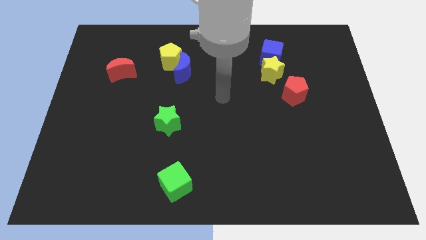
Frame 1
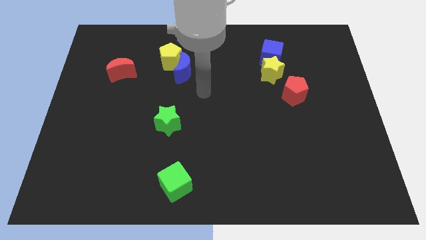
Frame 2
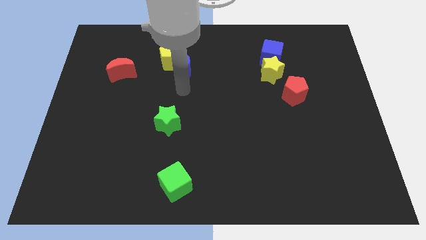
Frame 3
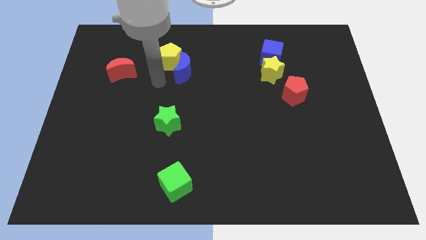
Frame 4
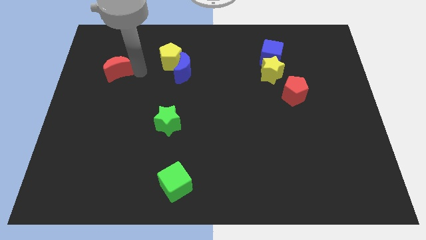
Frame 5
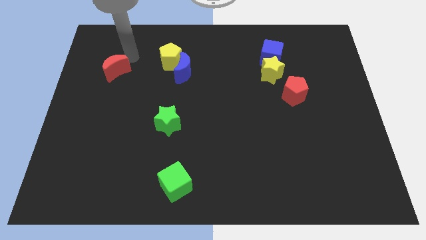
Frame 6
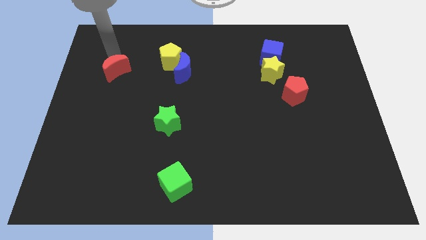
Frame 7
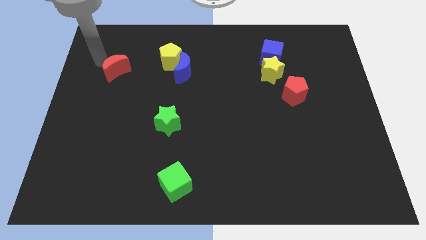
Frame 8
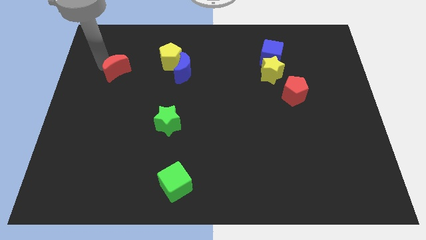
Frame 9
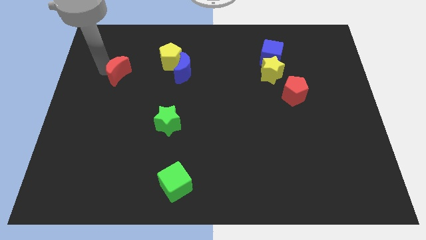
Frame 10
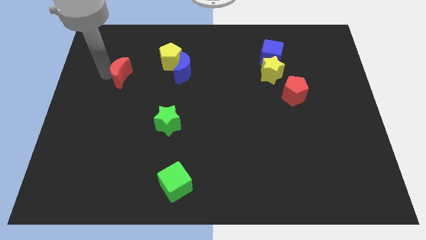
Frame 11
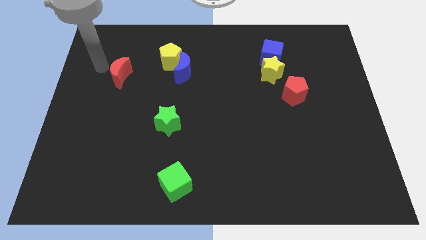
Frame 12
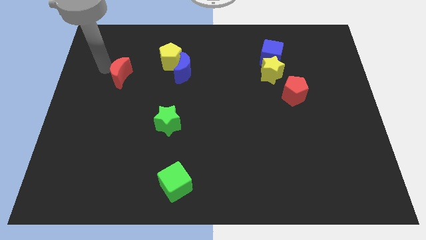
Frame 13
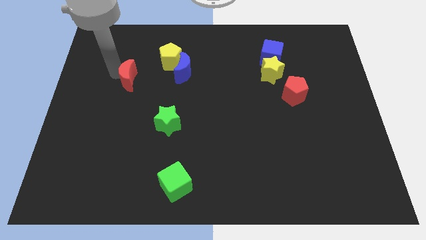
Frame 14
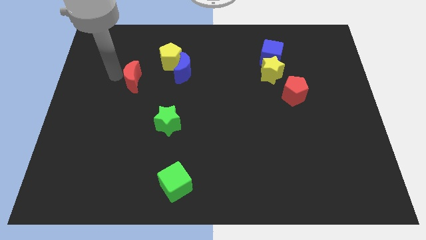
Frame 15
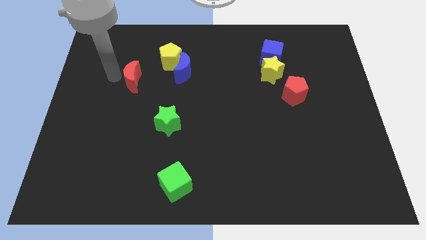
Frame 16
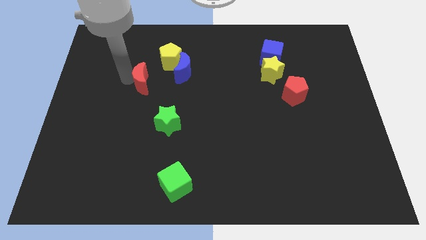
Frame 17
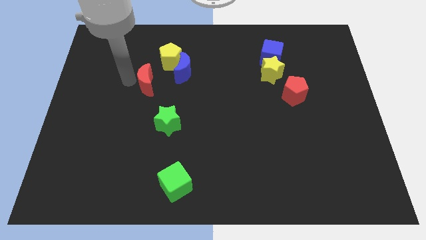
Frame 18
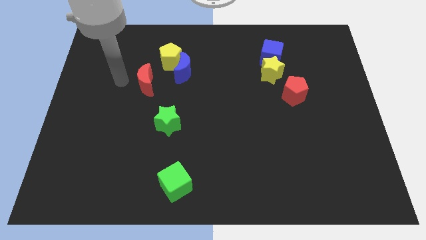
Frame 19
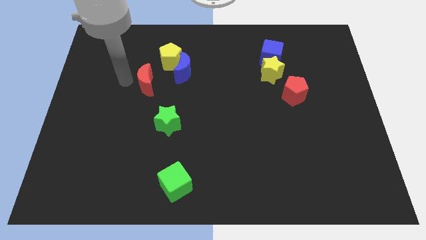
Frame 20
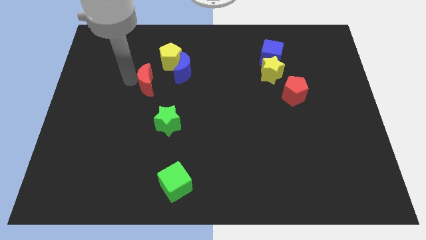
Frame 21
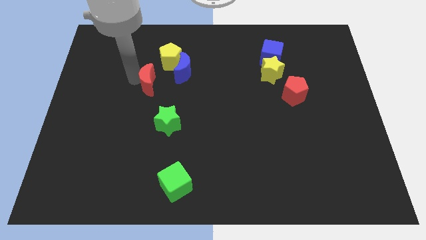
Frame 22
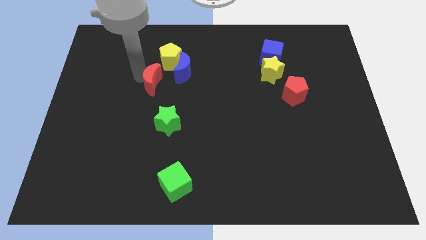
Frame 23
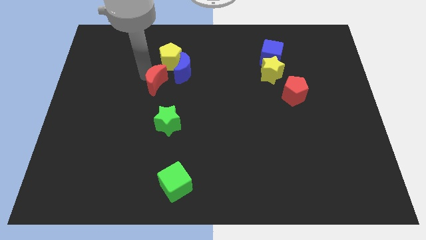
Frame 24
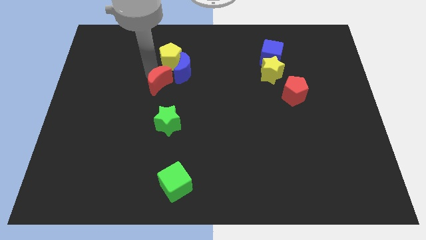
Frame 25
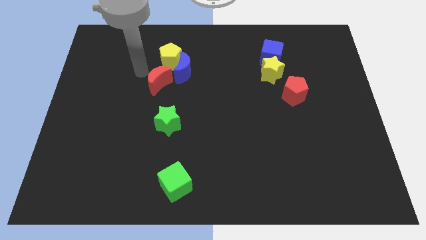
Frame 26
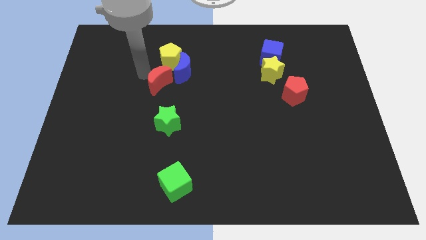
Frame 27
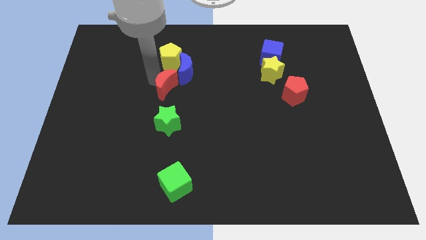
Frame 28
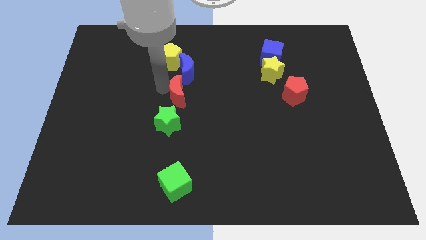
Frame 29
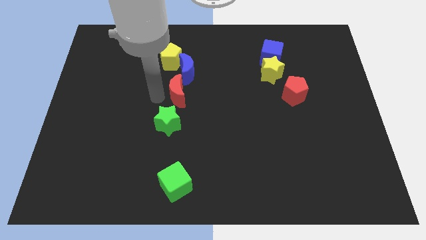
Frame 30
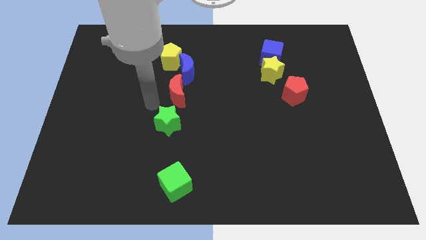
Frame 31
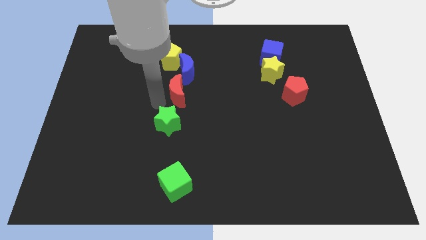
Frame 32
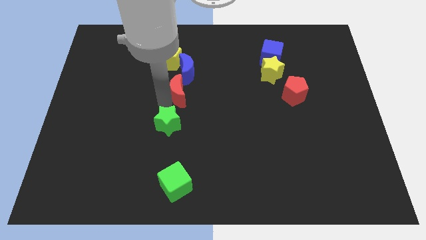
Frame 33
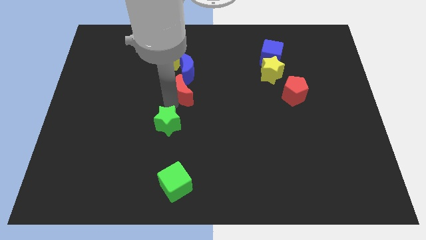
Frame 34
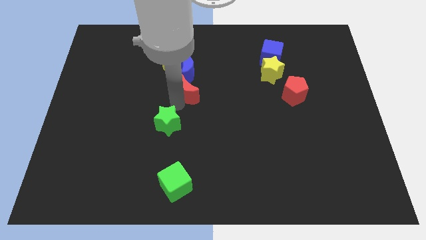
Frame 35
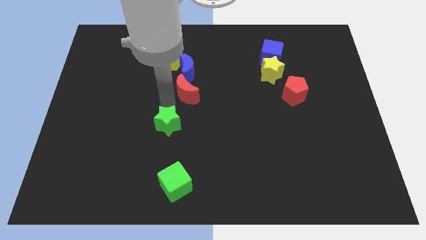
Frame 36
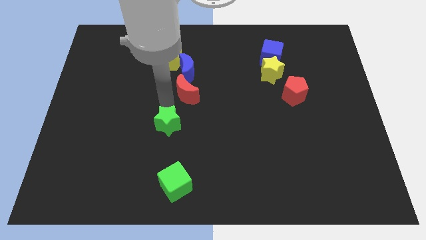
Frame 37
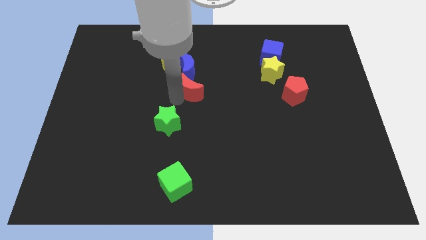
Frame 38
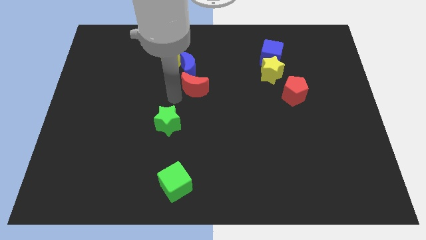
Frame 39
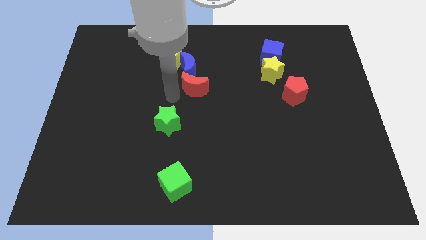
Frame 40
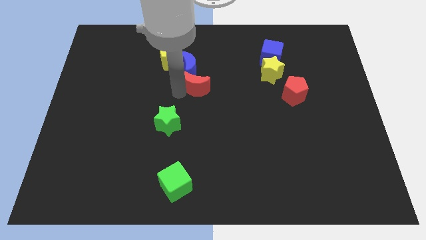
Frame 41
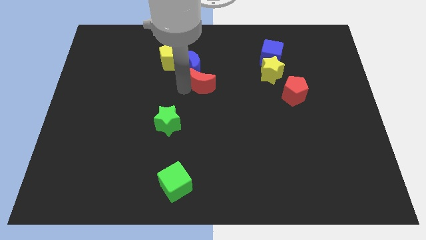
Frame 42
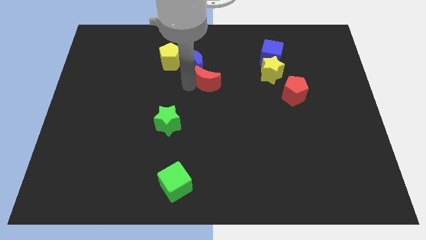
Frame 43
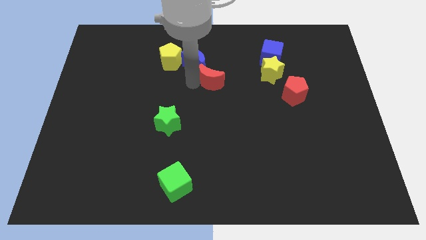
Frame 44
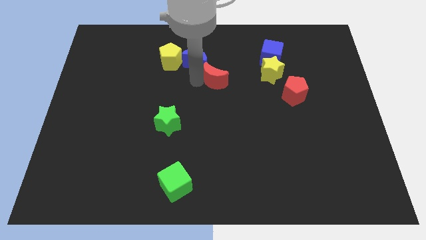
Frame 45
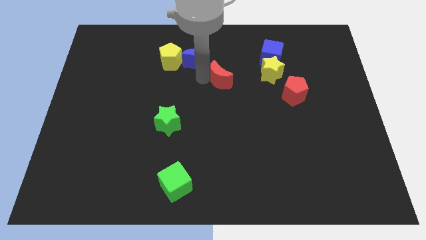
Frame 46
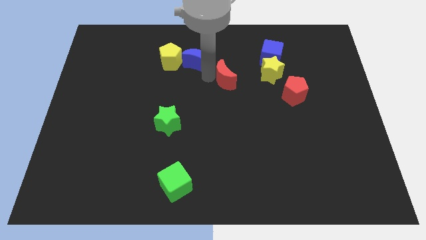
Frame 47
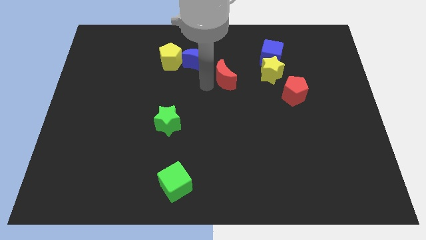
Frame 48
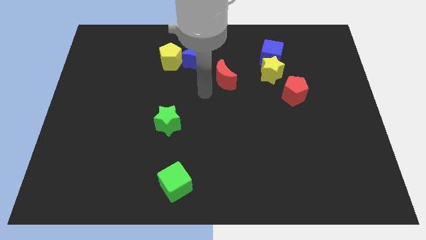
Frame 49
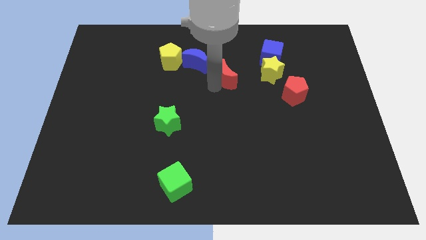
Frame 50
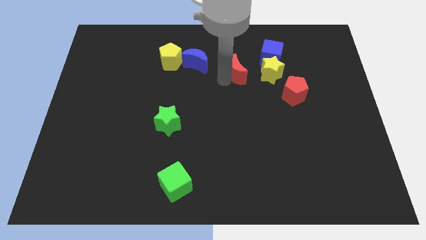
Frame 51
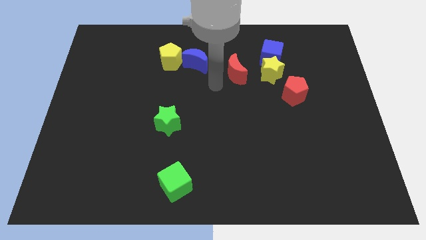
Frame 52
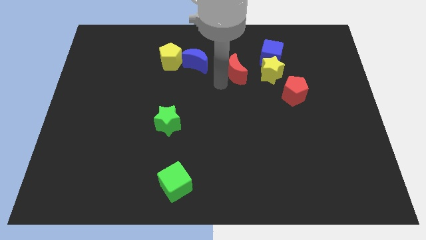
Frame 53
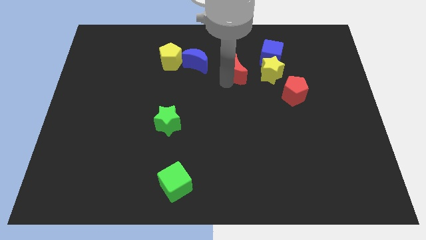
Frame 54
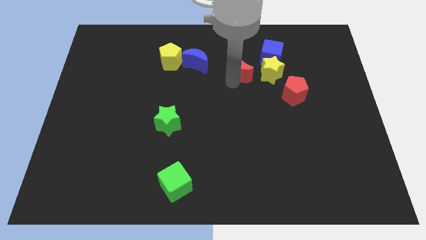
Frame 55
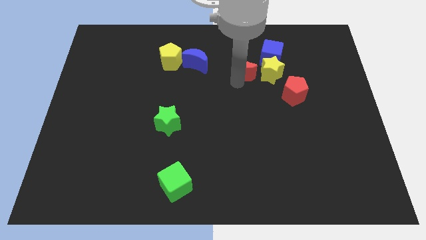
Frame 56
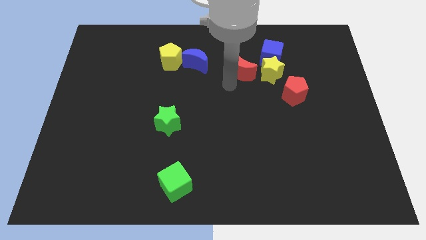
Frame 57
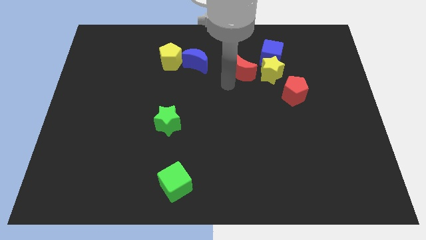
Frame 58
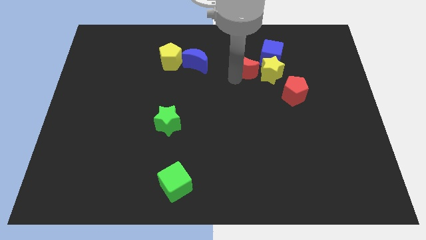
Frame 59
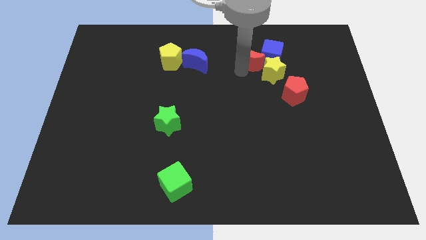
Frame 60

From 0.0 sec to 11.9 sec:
push the red moon towards the blue cube

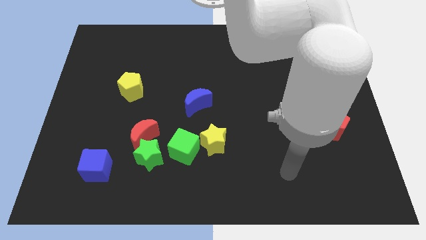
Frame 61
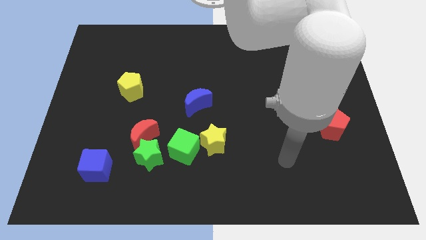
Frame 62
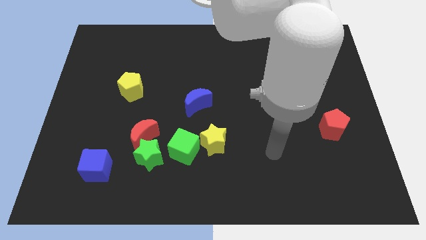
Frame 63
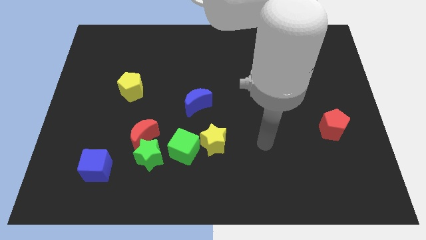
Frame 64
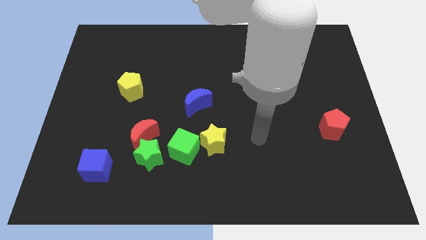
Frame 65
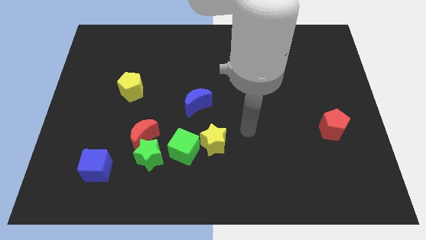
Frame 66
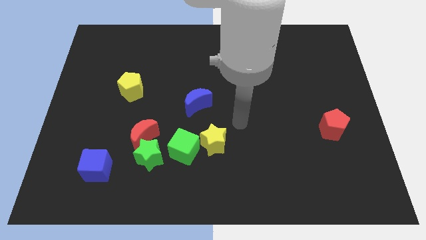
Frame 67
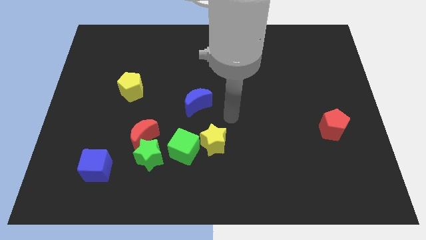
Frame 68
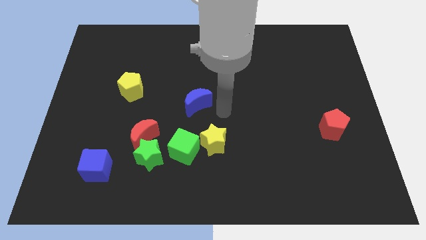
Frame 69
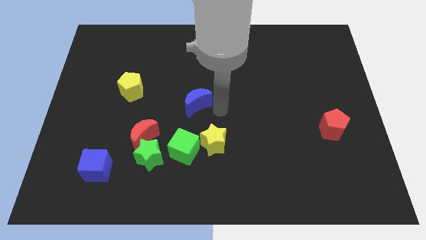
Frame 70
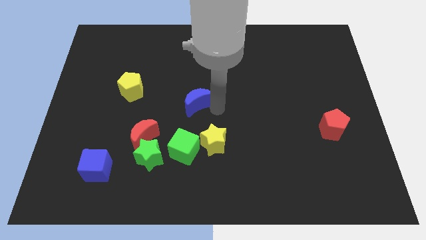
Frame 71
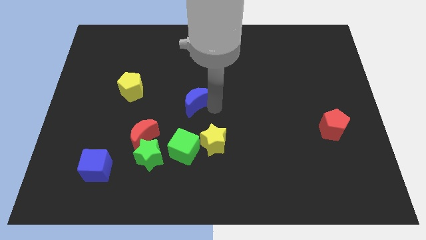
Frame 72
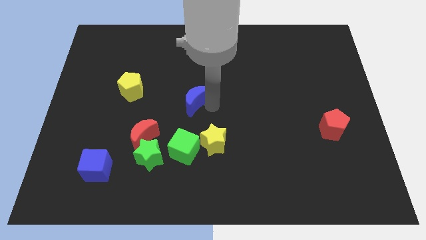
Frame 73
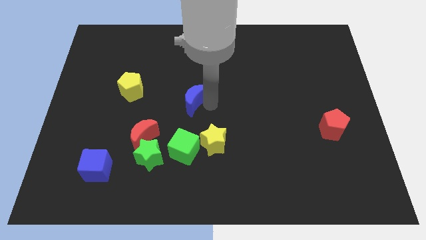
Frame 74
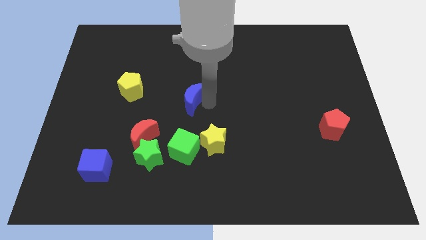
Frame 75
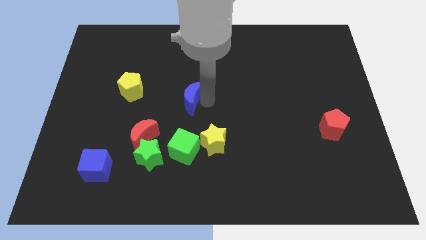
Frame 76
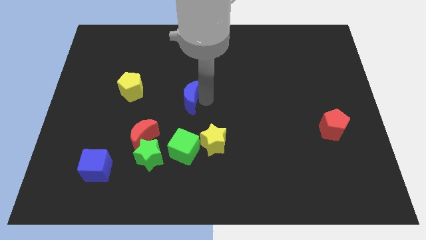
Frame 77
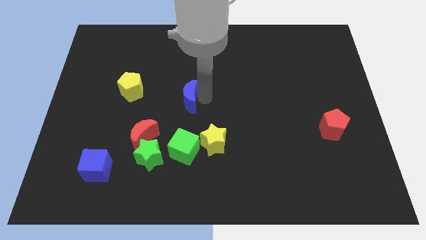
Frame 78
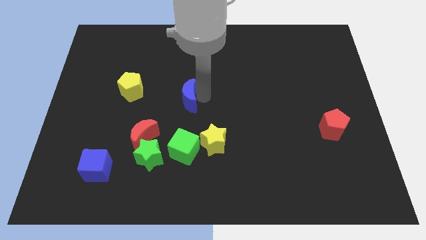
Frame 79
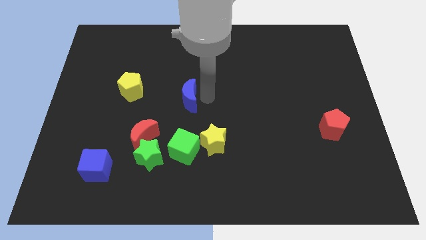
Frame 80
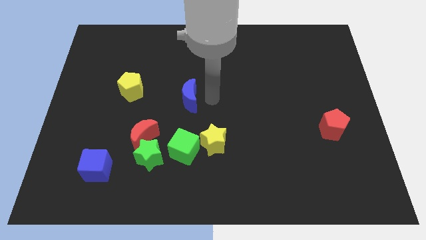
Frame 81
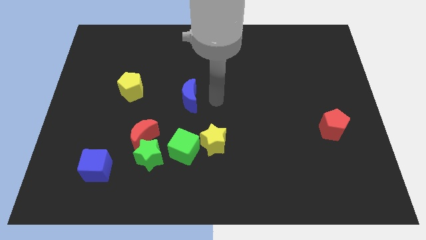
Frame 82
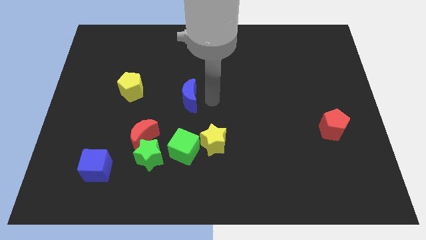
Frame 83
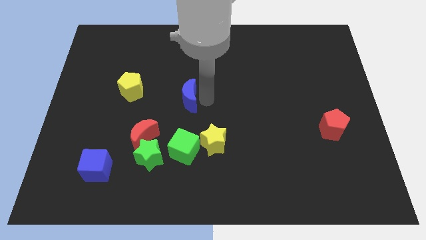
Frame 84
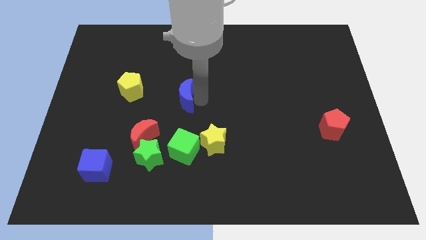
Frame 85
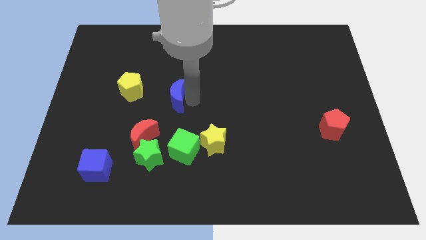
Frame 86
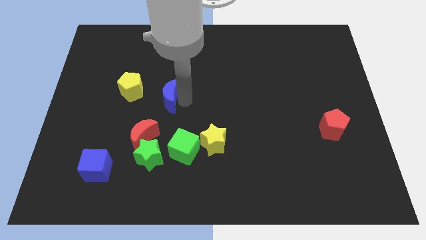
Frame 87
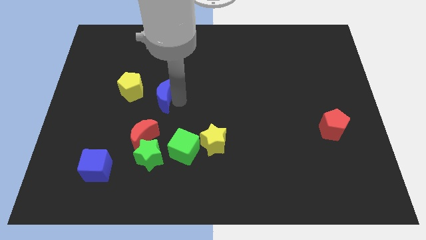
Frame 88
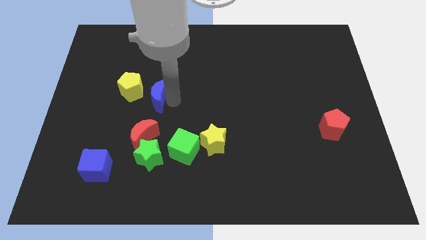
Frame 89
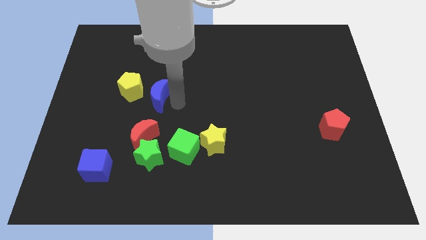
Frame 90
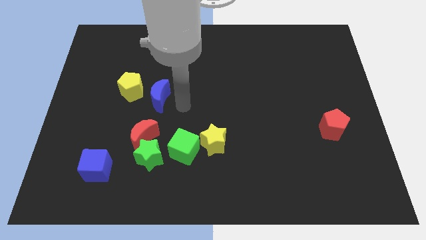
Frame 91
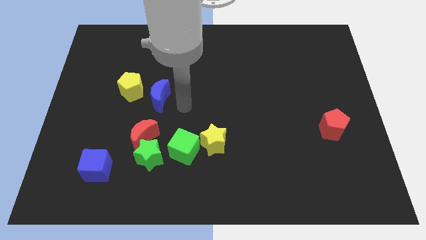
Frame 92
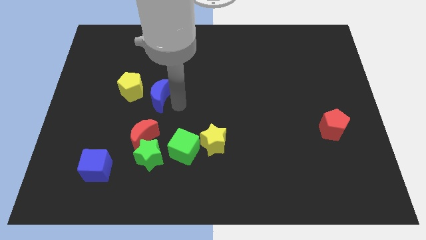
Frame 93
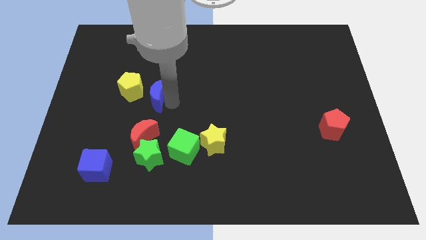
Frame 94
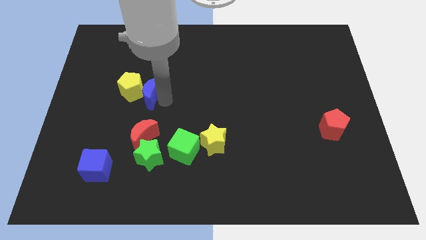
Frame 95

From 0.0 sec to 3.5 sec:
put the blue moon towards the yellow pentagon
